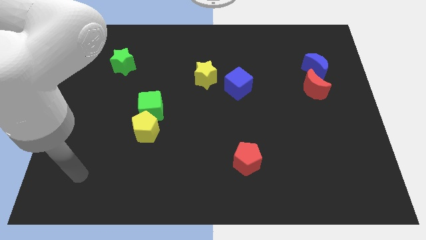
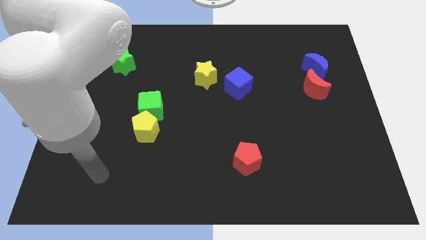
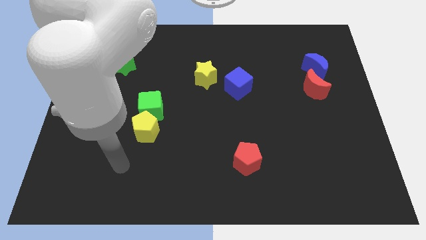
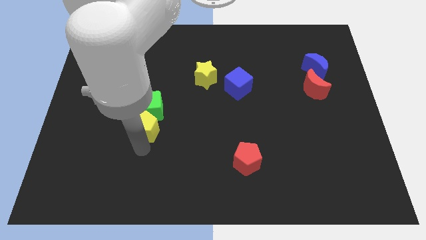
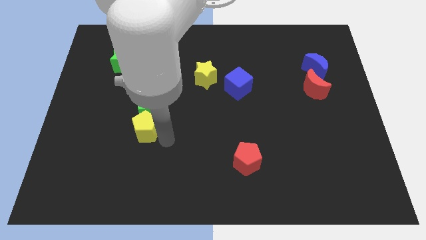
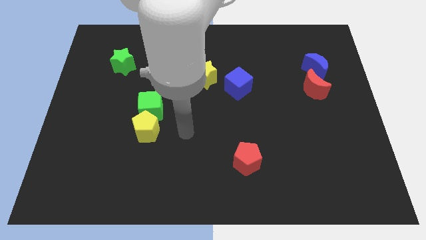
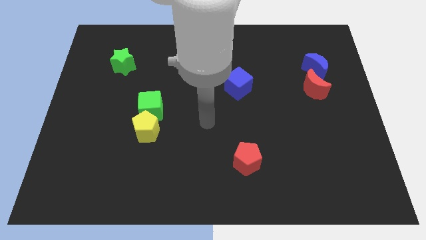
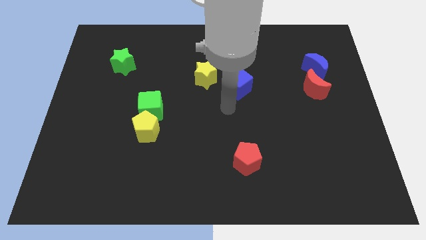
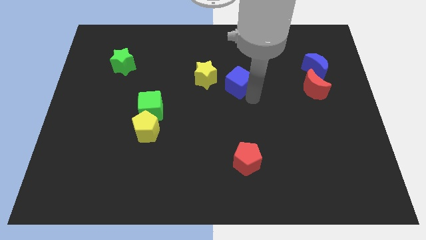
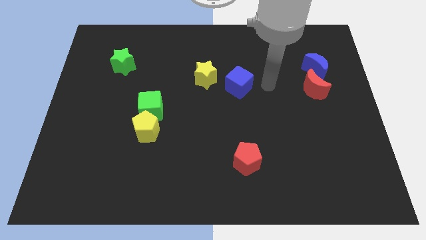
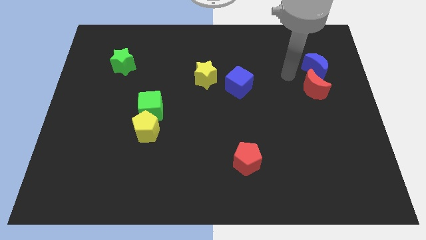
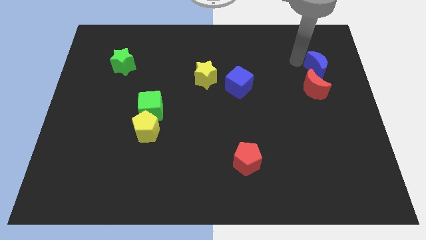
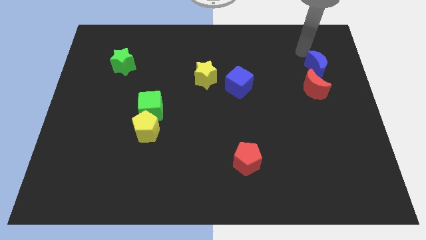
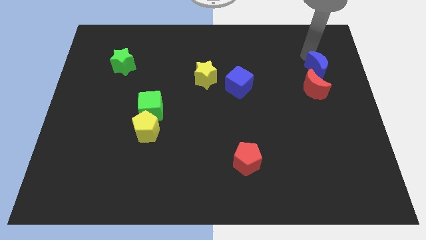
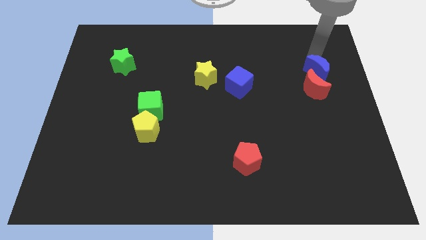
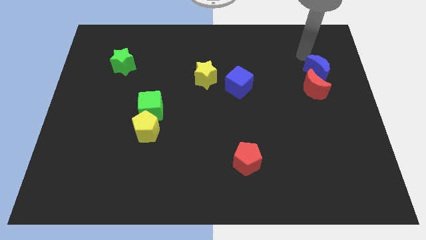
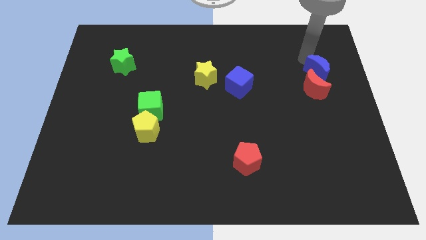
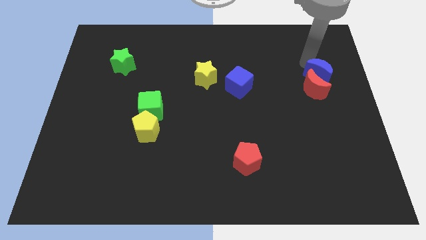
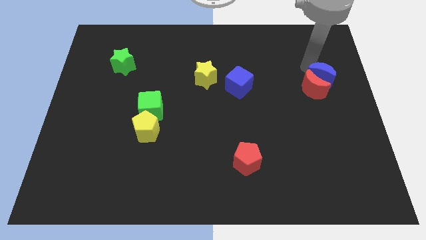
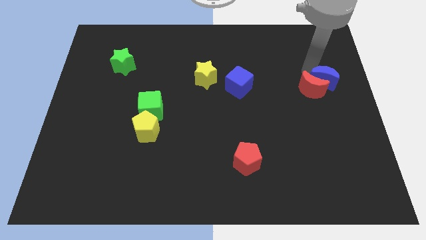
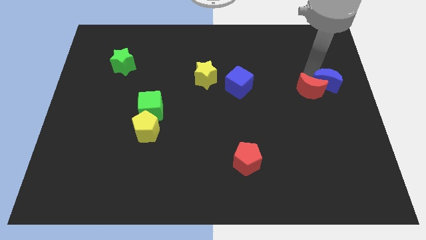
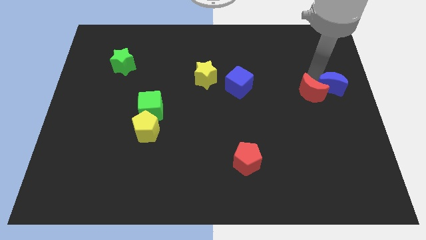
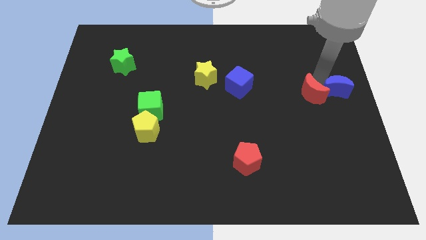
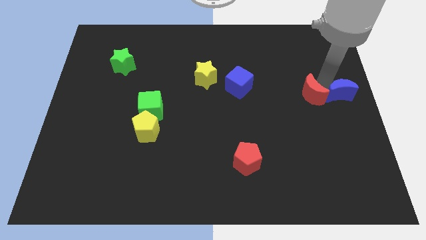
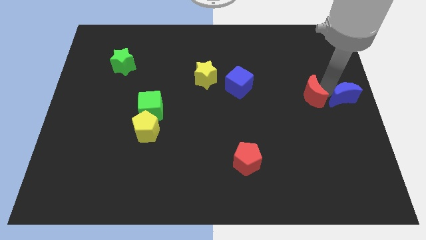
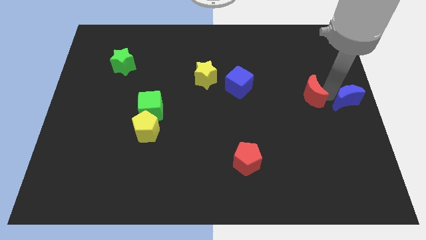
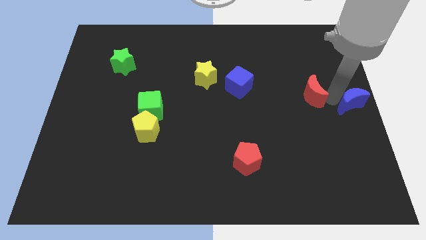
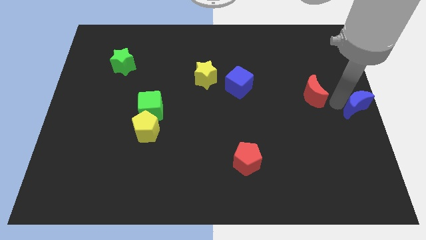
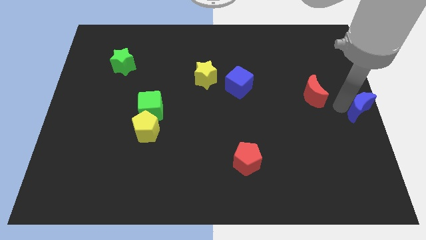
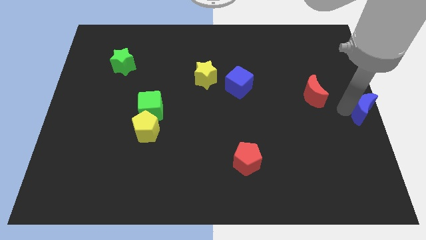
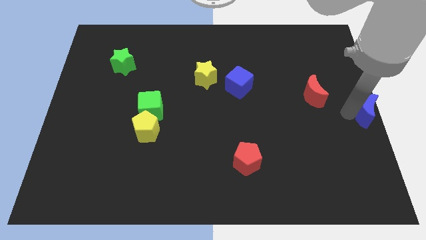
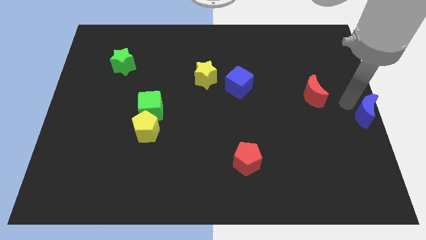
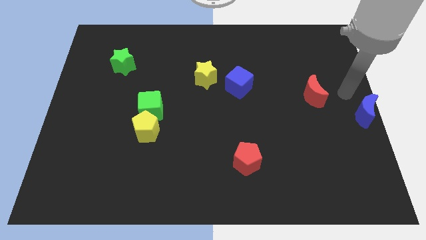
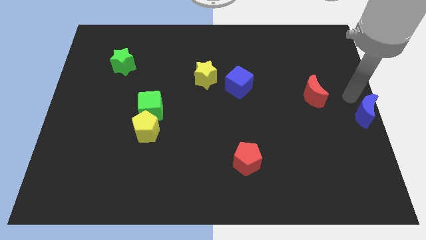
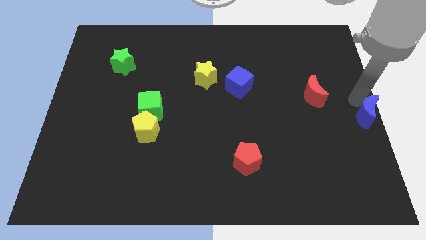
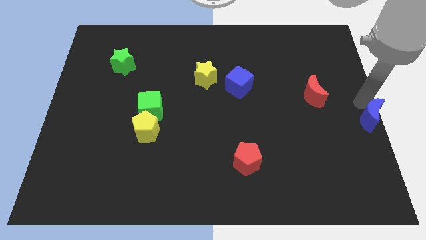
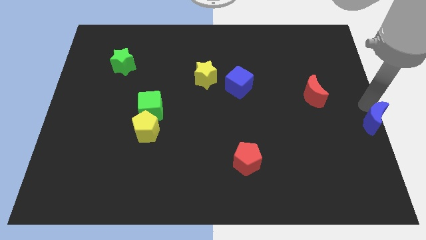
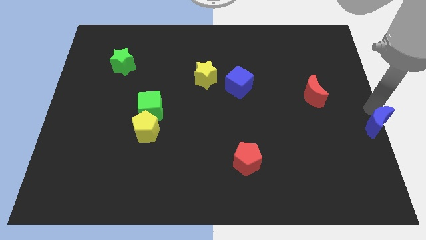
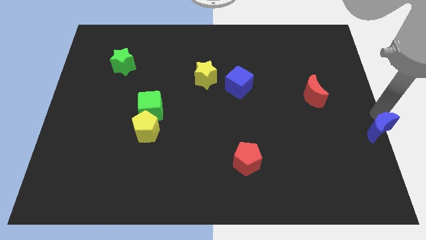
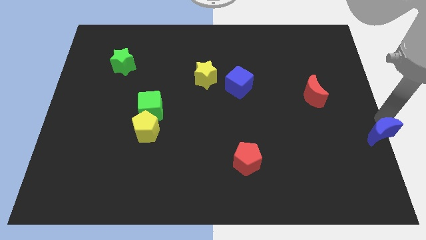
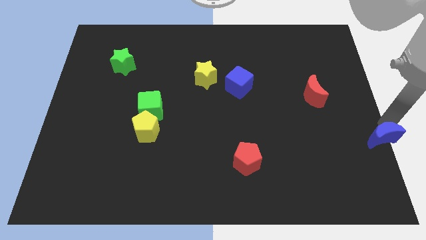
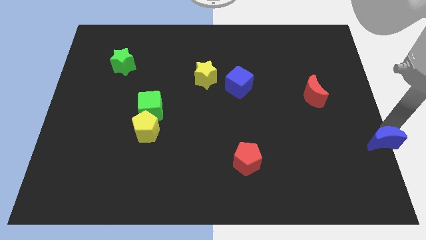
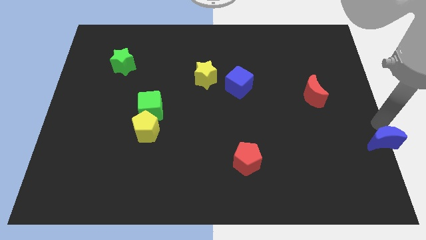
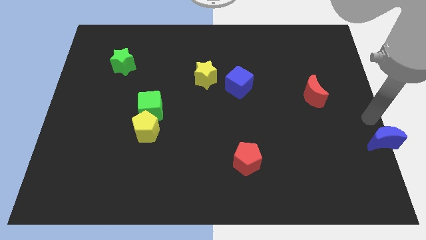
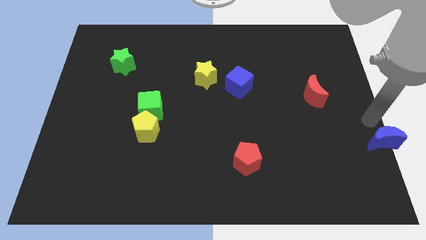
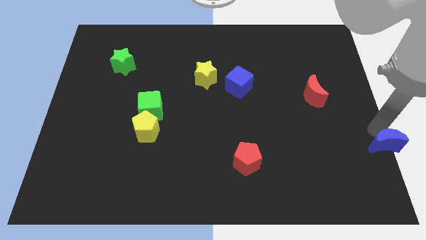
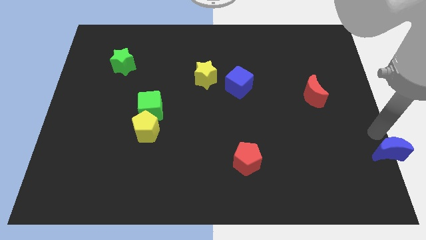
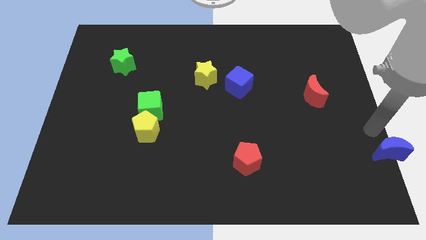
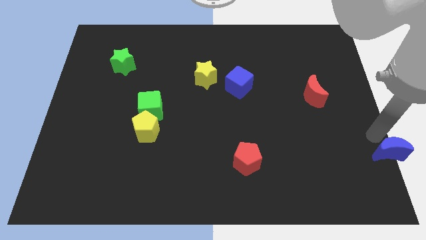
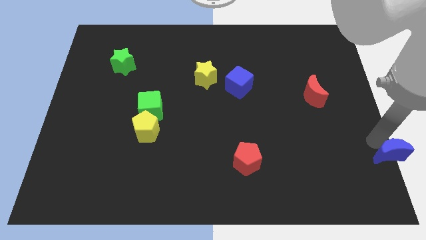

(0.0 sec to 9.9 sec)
put the blue moon to the bottom right corner

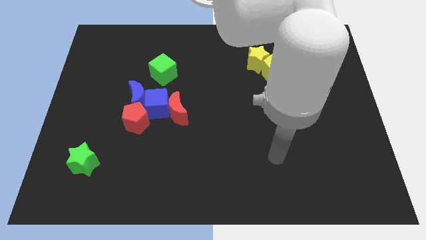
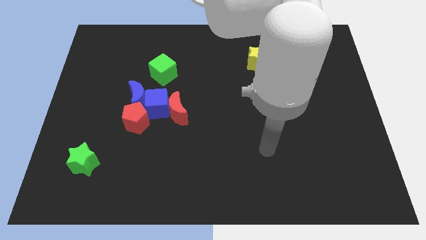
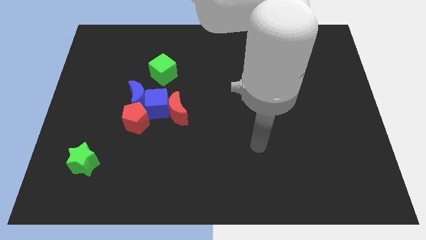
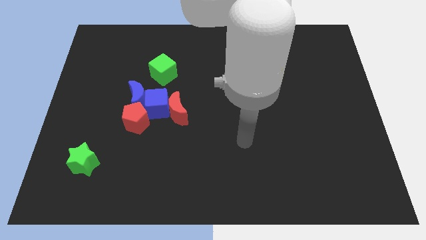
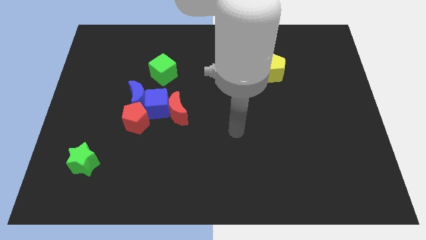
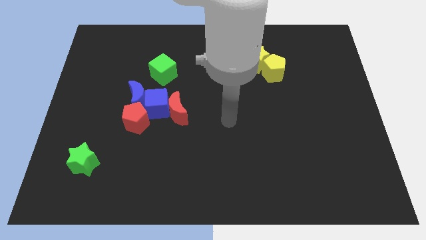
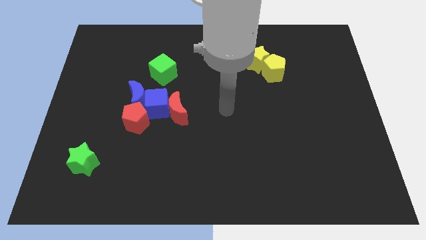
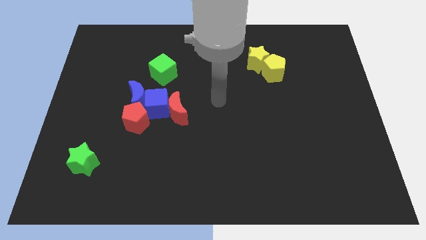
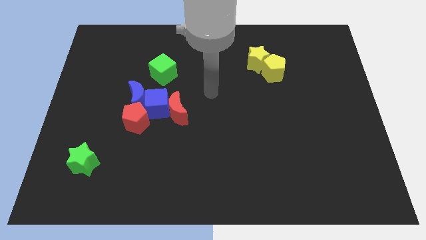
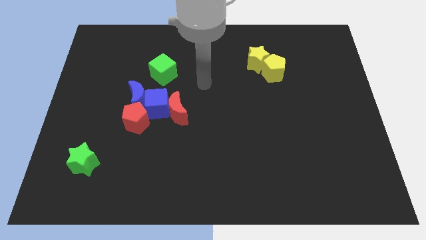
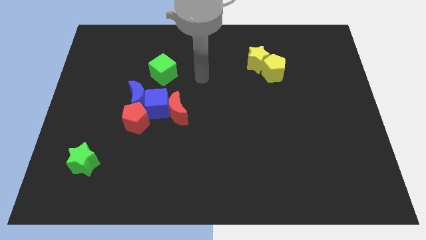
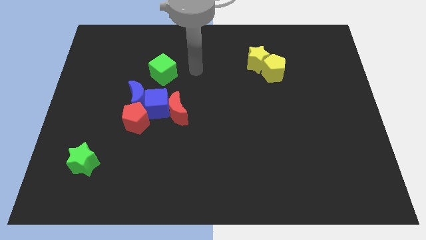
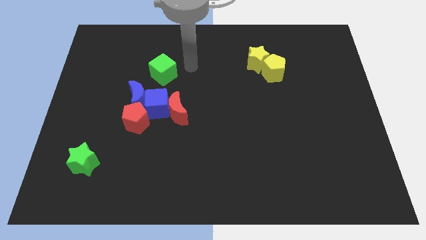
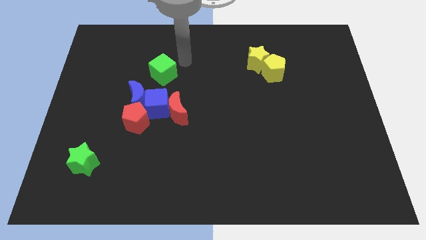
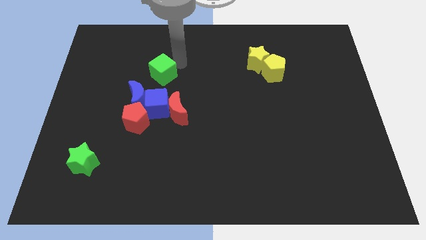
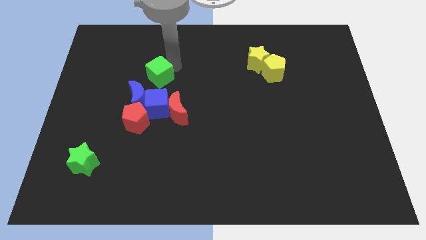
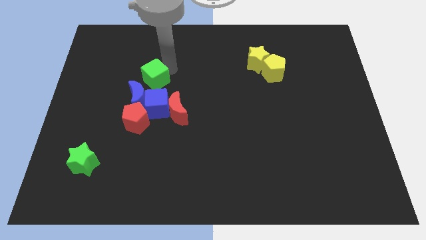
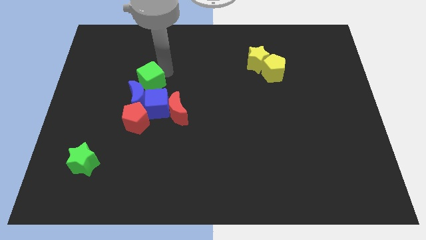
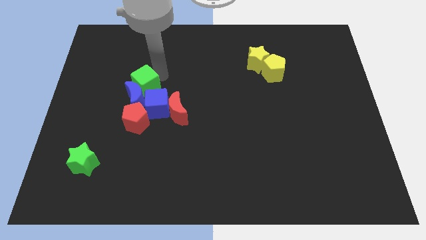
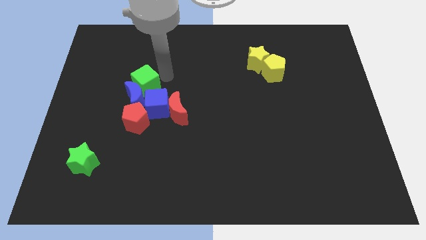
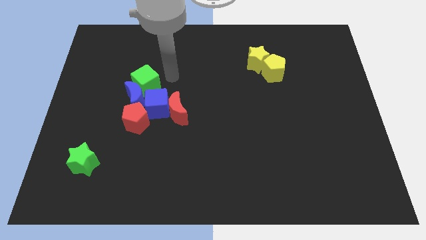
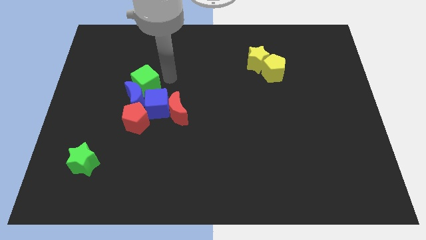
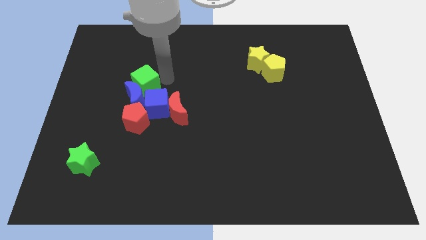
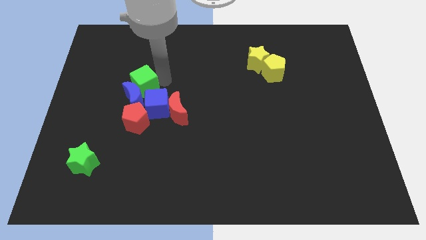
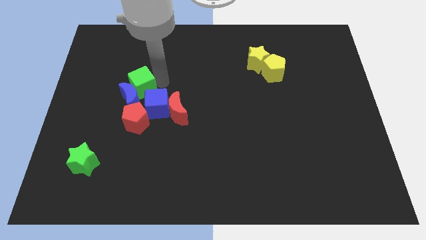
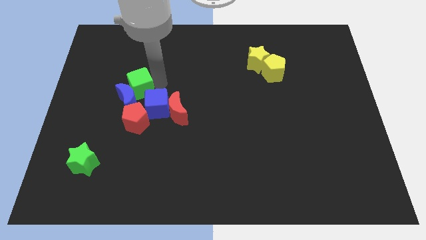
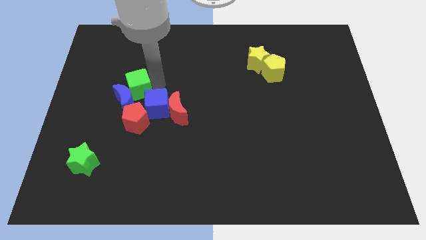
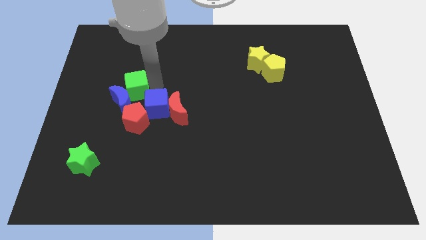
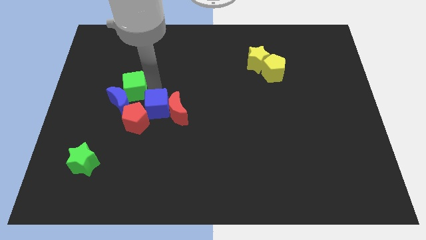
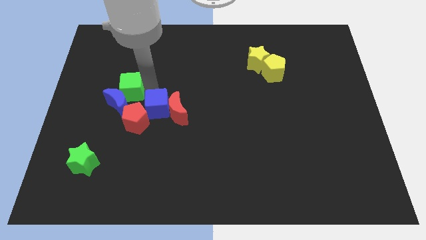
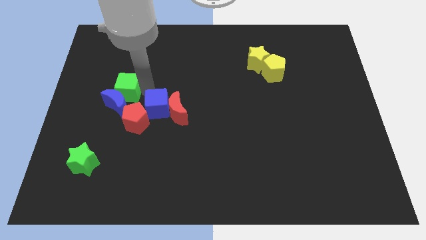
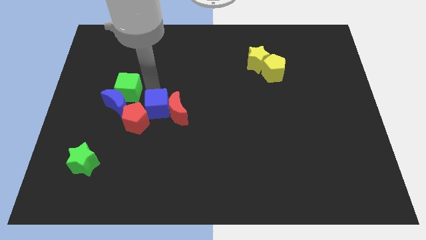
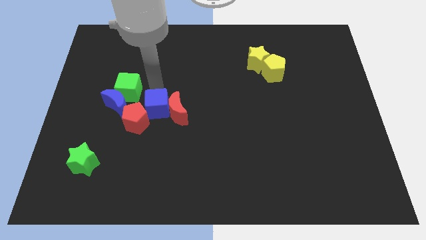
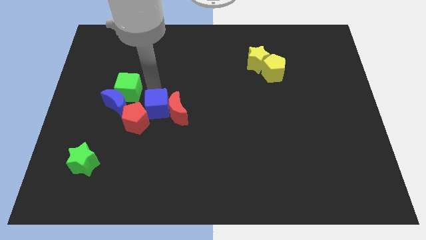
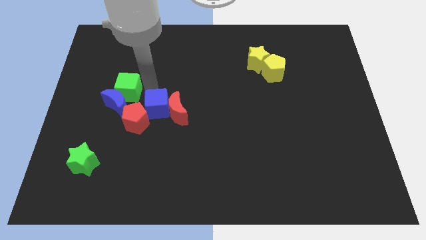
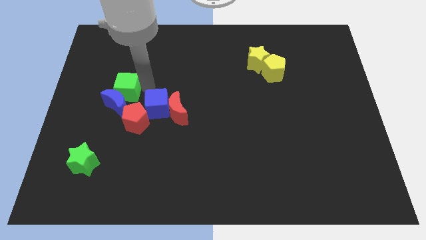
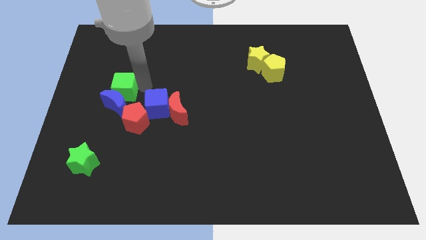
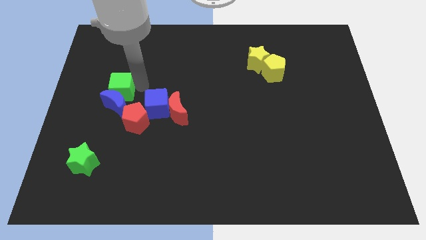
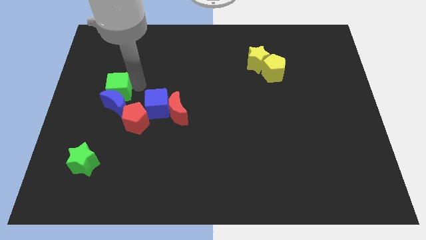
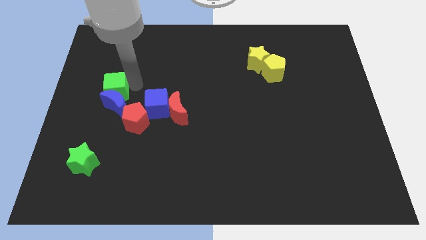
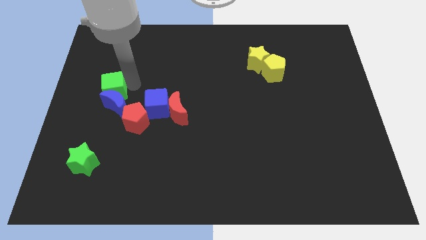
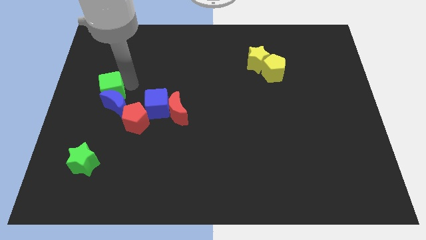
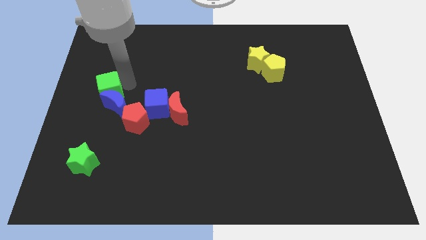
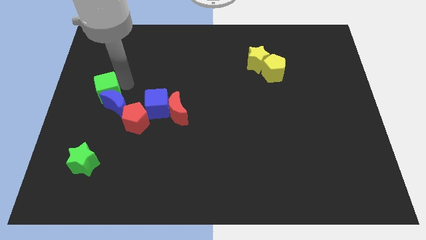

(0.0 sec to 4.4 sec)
slide the green cube to the center left
